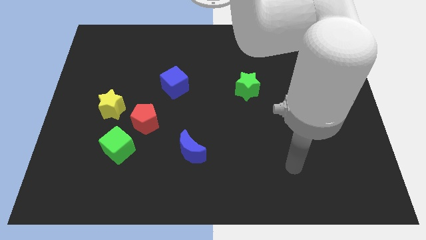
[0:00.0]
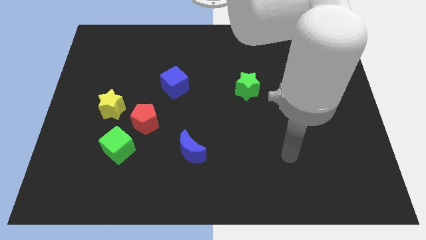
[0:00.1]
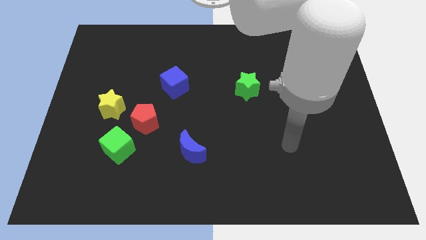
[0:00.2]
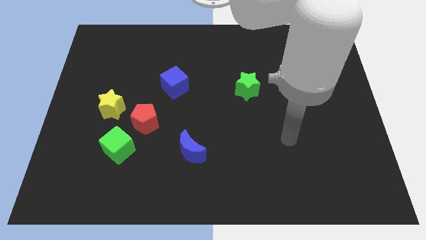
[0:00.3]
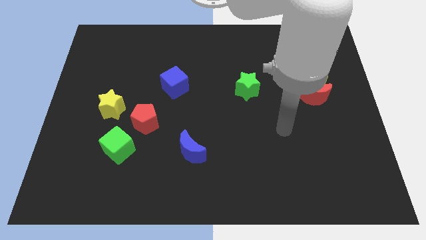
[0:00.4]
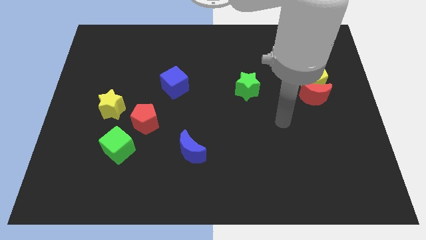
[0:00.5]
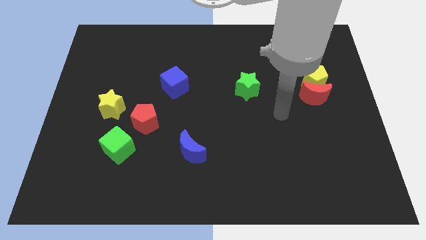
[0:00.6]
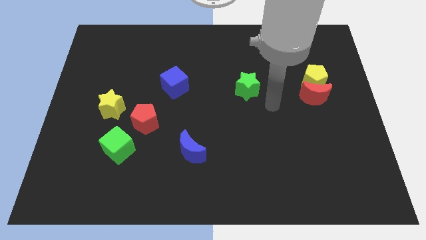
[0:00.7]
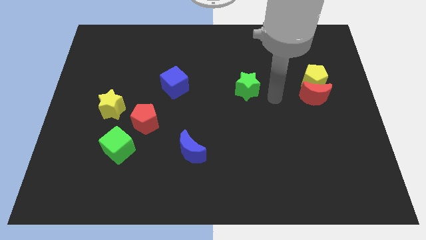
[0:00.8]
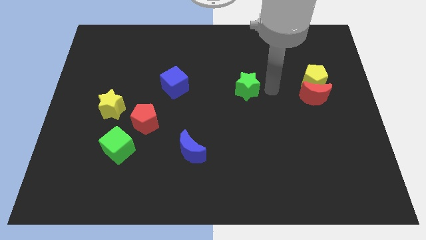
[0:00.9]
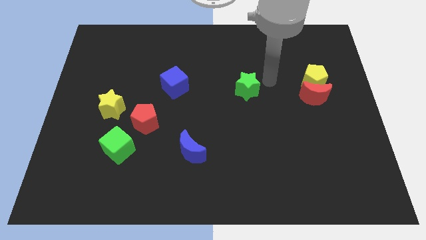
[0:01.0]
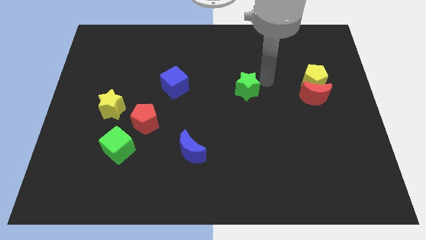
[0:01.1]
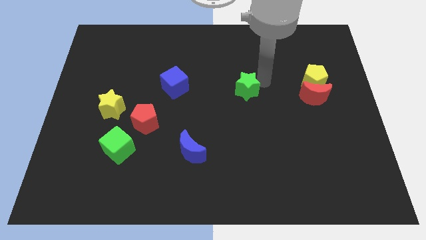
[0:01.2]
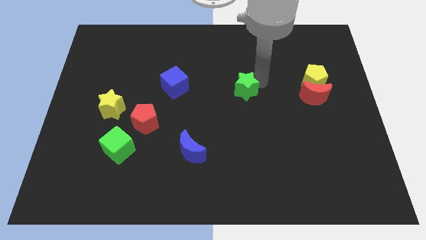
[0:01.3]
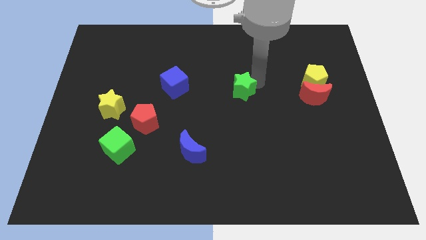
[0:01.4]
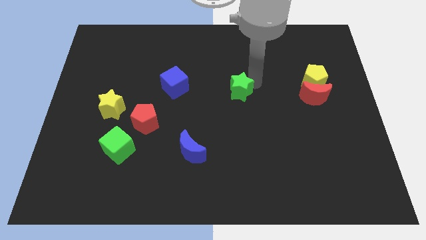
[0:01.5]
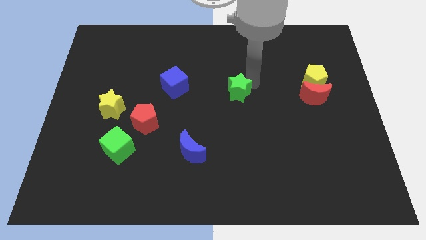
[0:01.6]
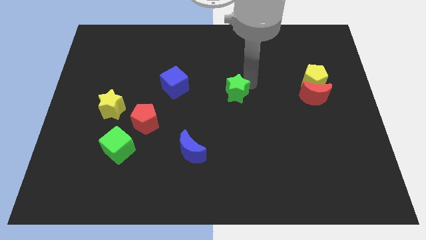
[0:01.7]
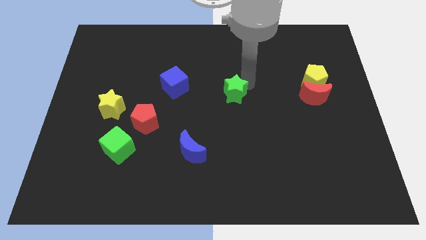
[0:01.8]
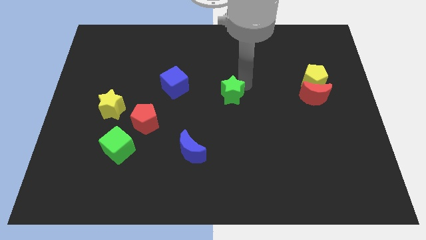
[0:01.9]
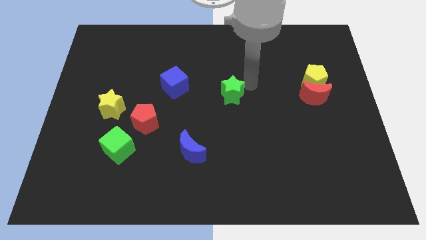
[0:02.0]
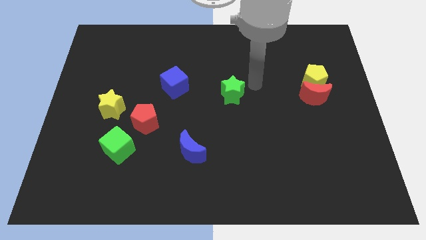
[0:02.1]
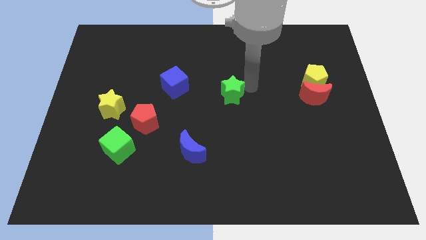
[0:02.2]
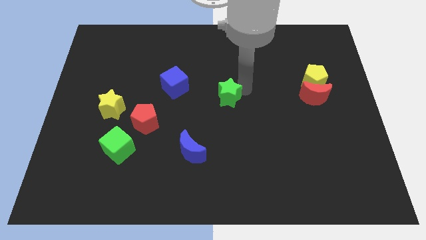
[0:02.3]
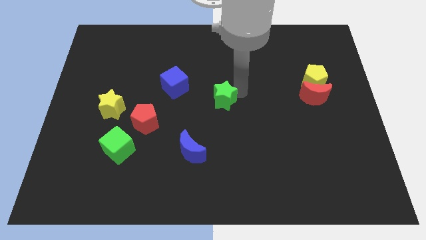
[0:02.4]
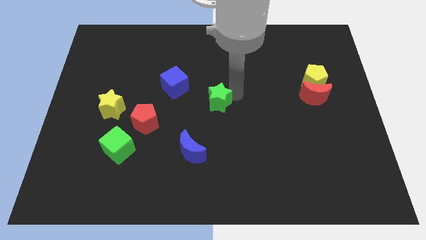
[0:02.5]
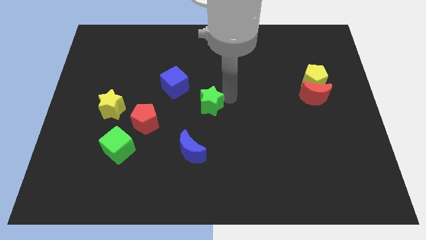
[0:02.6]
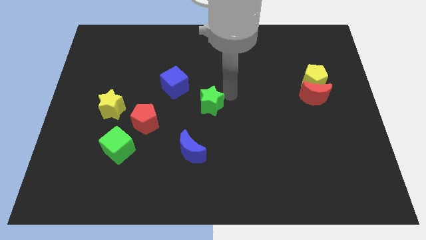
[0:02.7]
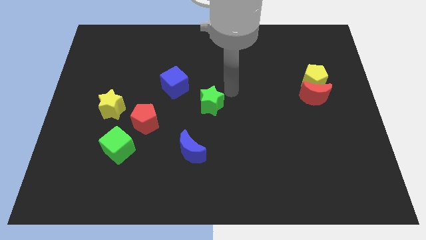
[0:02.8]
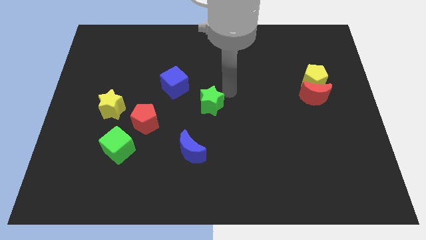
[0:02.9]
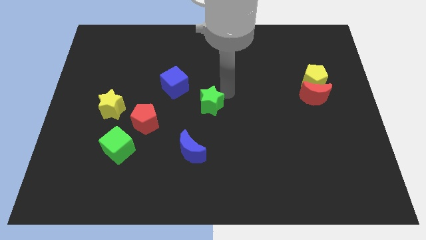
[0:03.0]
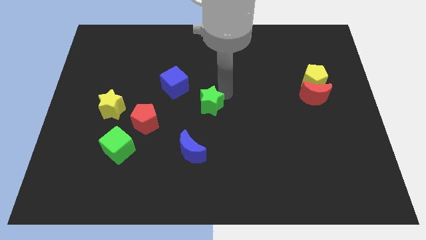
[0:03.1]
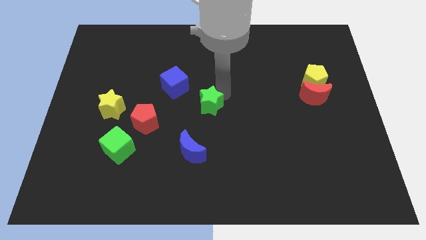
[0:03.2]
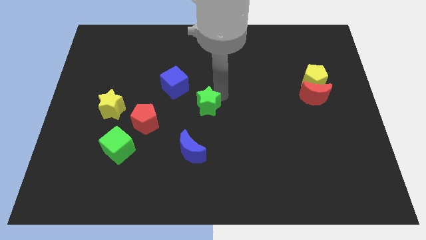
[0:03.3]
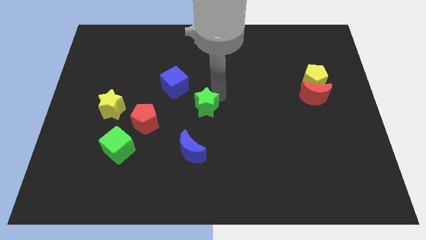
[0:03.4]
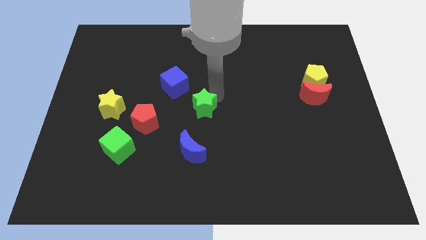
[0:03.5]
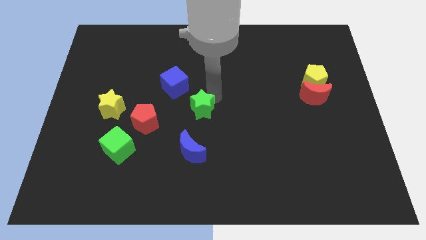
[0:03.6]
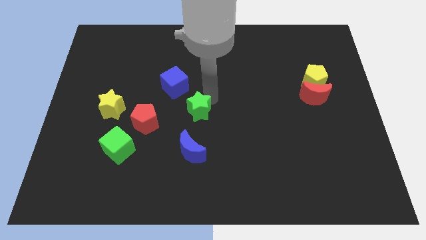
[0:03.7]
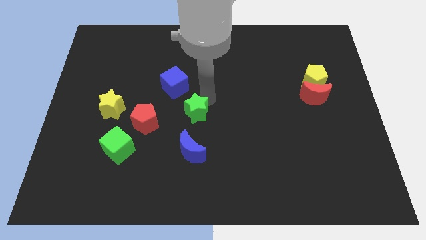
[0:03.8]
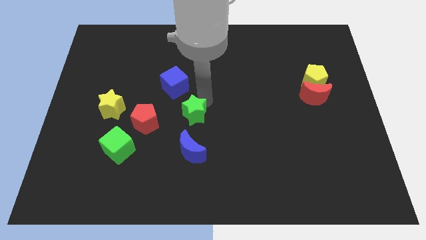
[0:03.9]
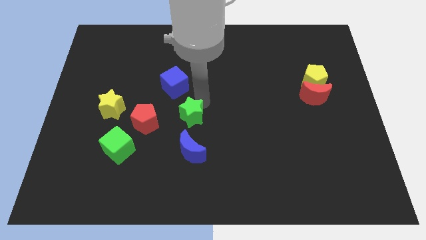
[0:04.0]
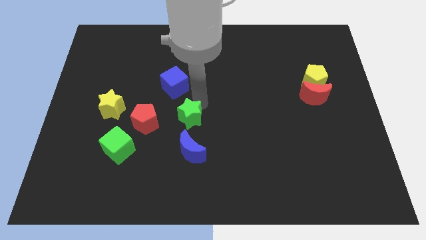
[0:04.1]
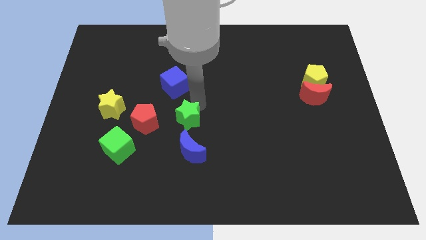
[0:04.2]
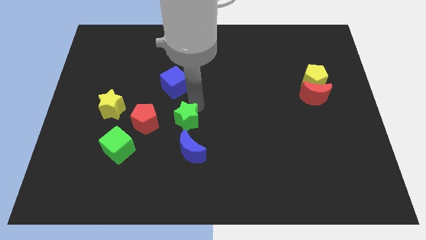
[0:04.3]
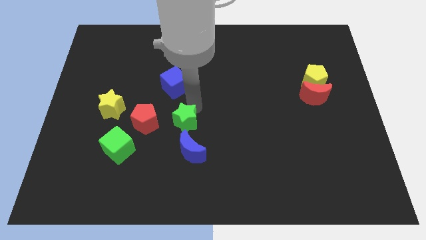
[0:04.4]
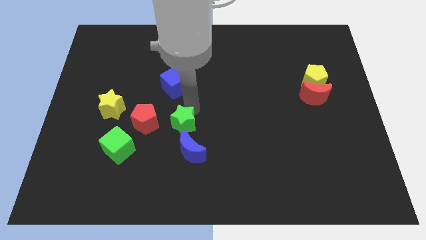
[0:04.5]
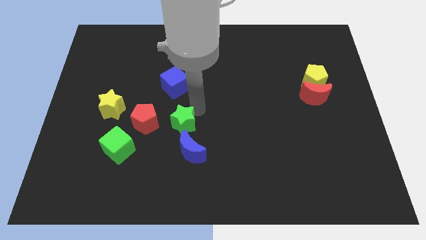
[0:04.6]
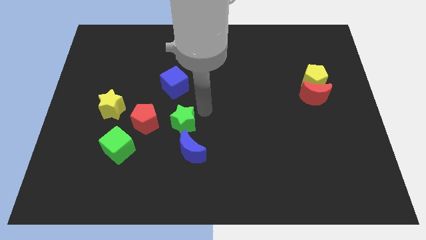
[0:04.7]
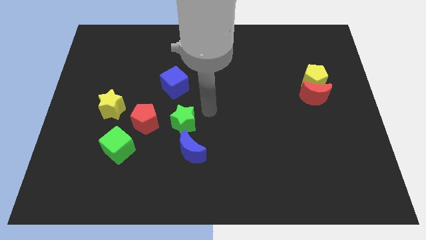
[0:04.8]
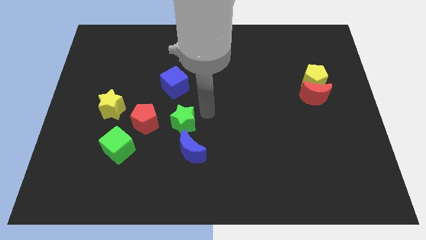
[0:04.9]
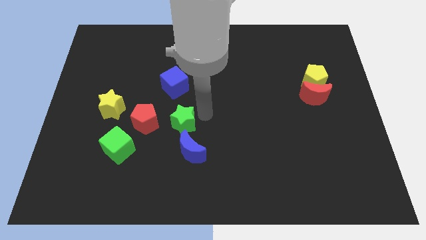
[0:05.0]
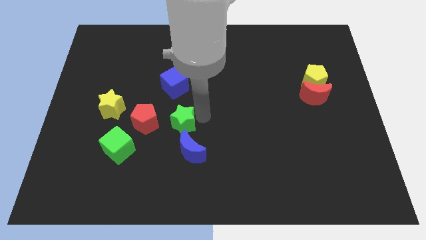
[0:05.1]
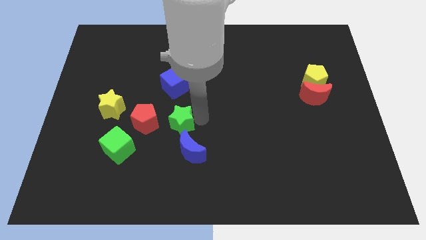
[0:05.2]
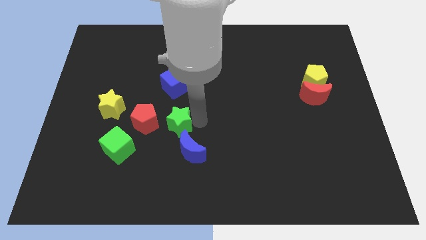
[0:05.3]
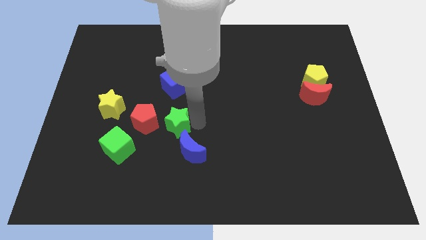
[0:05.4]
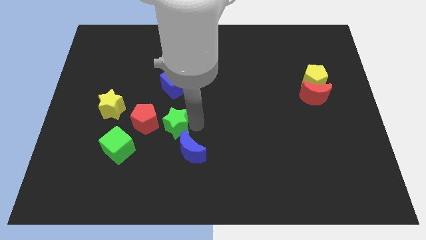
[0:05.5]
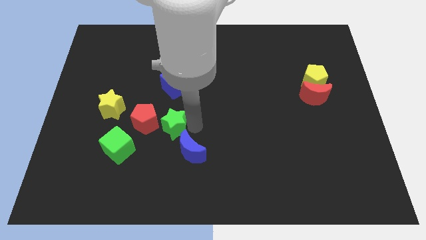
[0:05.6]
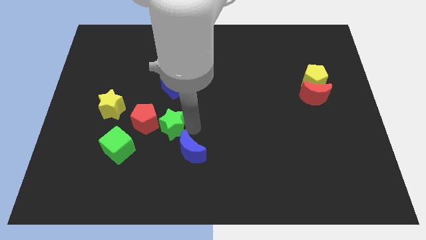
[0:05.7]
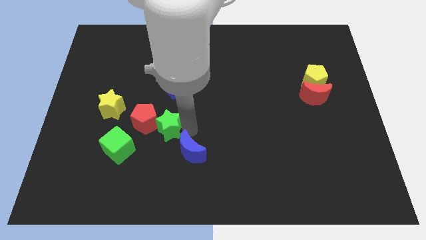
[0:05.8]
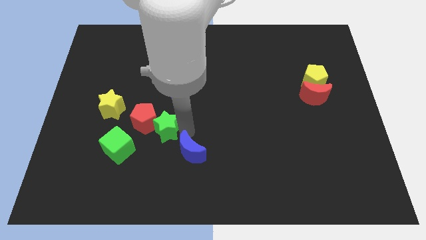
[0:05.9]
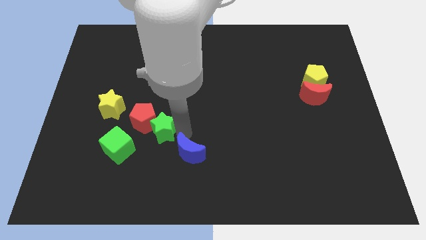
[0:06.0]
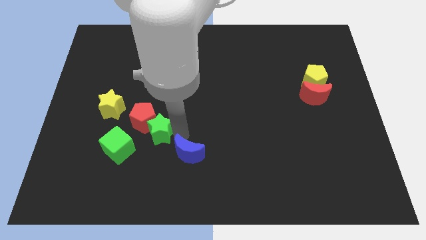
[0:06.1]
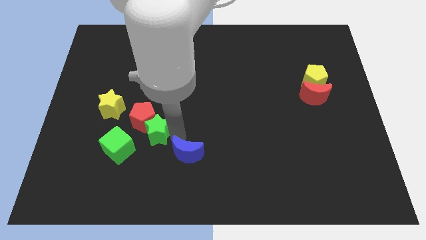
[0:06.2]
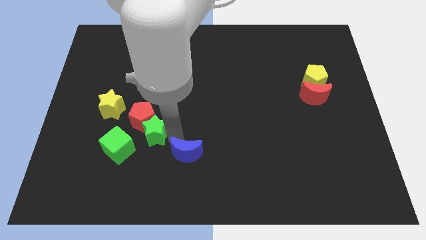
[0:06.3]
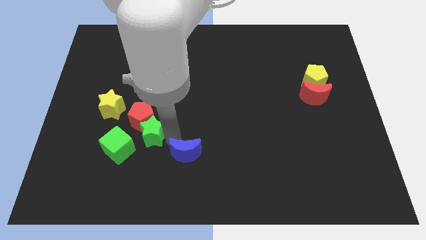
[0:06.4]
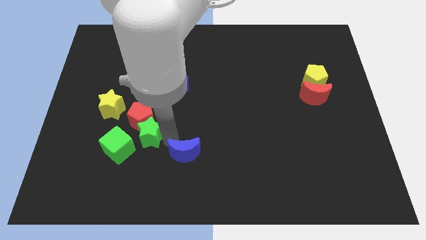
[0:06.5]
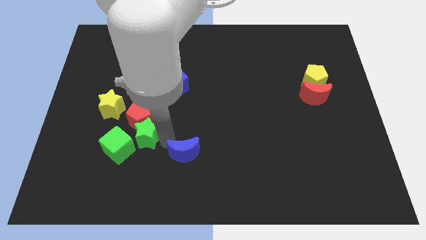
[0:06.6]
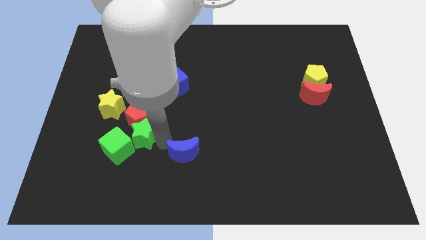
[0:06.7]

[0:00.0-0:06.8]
slide the green star towards the green cube
